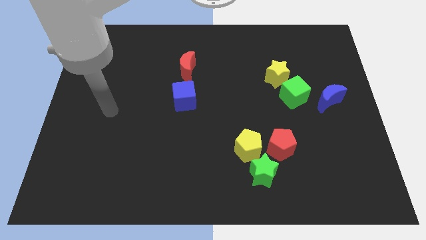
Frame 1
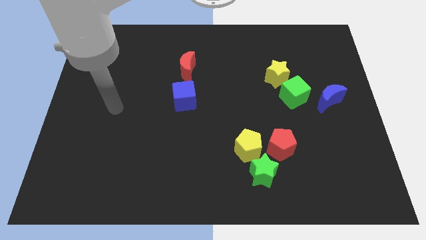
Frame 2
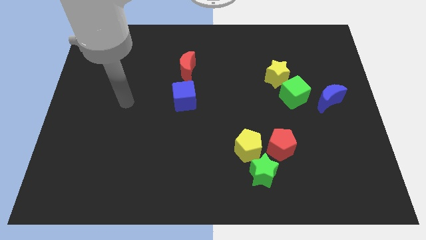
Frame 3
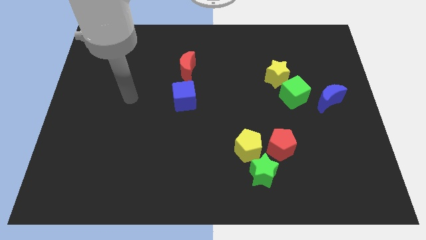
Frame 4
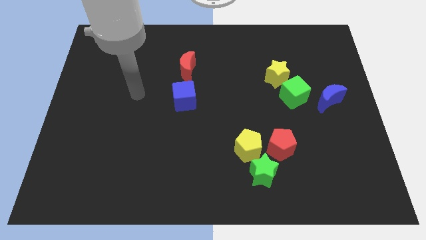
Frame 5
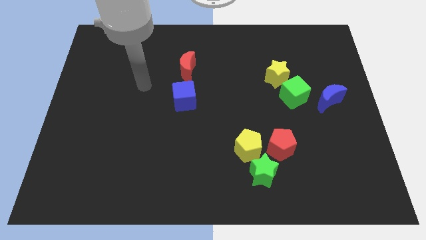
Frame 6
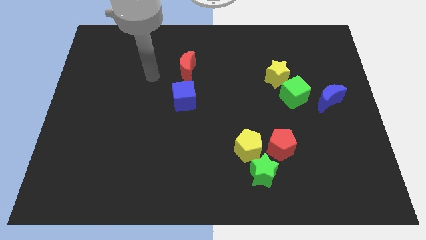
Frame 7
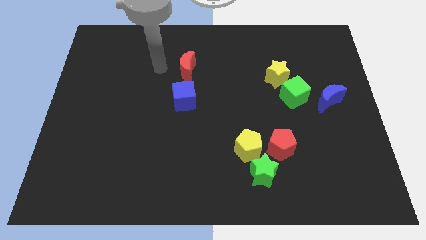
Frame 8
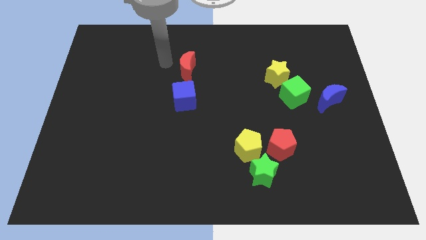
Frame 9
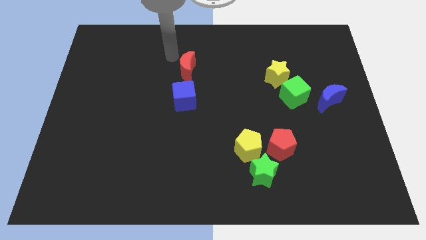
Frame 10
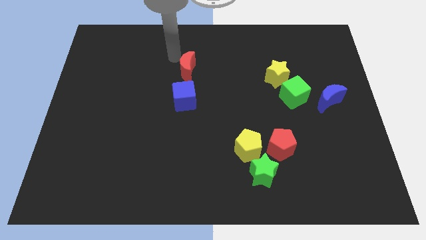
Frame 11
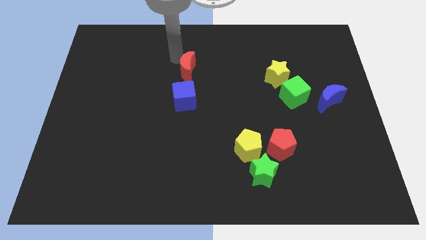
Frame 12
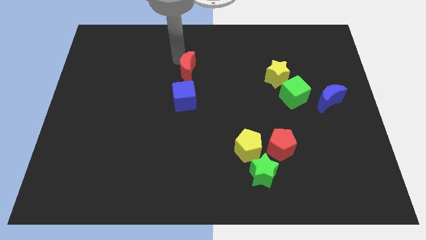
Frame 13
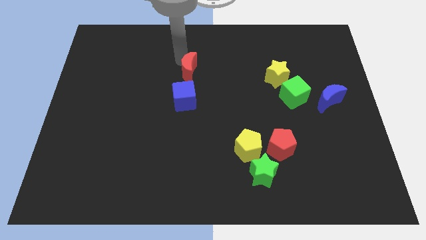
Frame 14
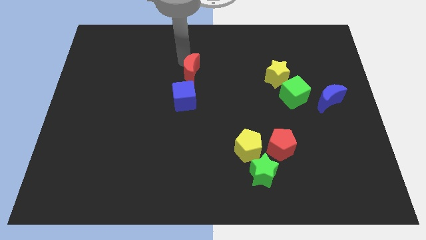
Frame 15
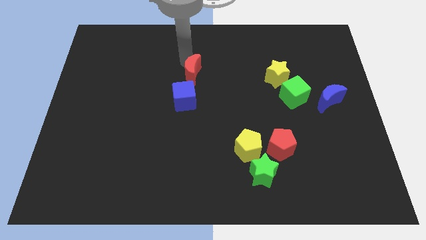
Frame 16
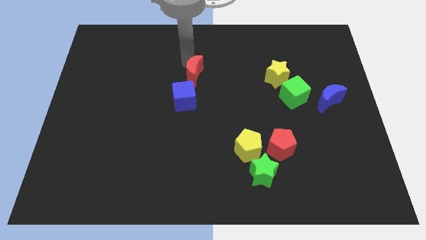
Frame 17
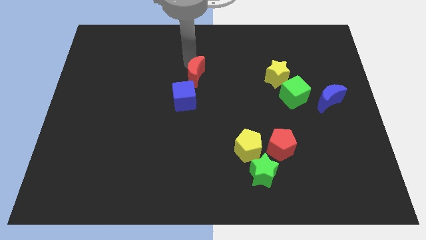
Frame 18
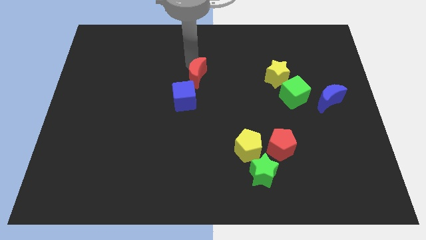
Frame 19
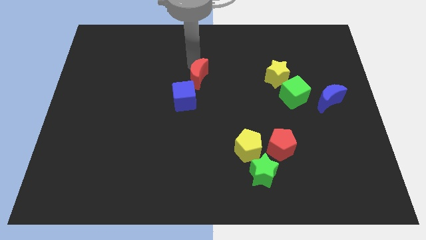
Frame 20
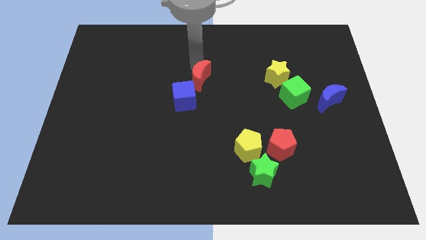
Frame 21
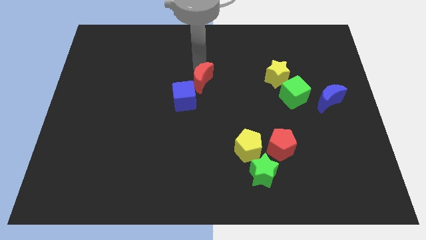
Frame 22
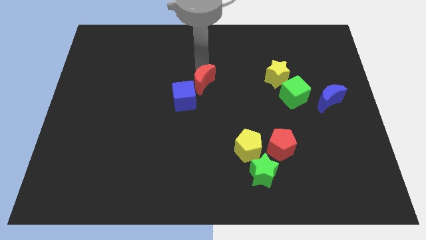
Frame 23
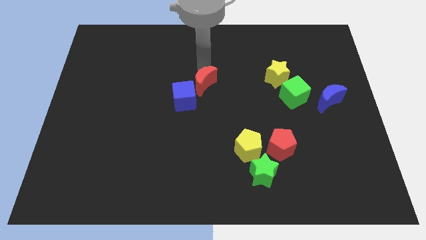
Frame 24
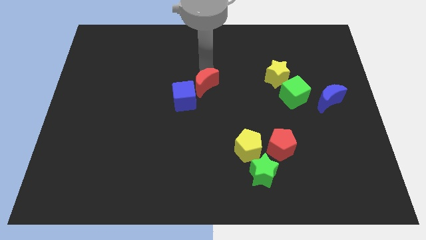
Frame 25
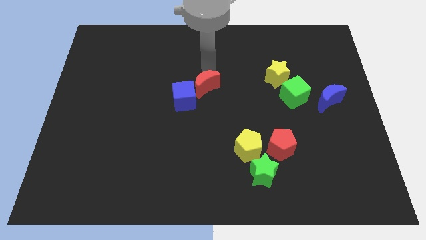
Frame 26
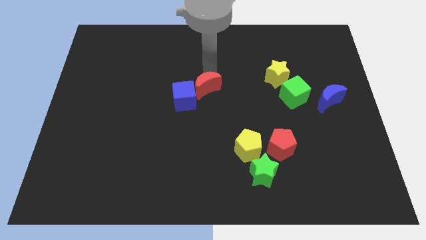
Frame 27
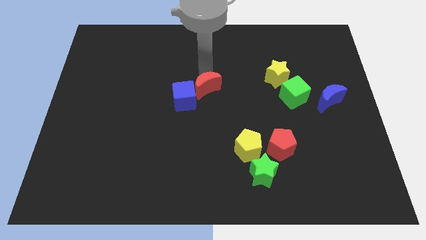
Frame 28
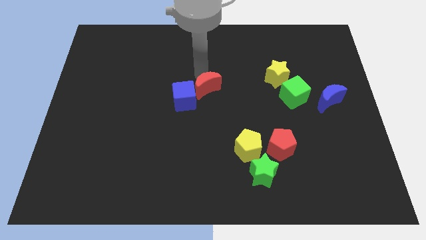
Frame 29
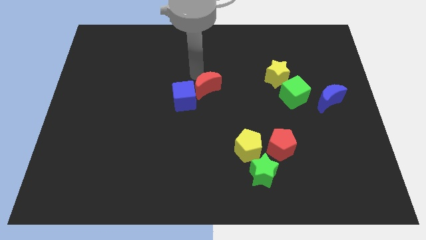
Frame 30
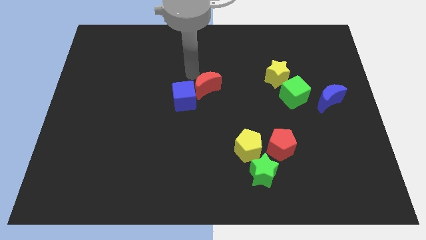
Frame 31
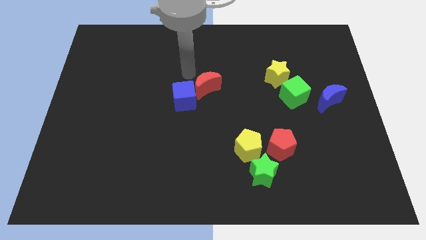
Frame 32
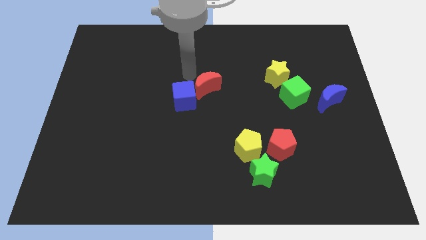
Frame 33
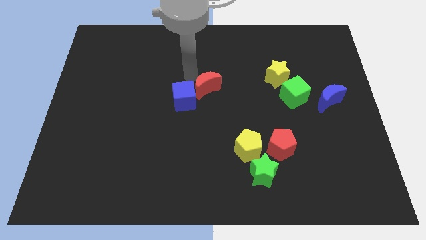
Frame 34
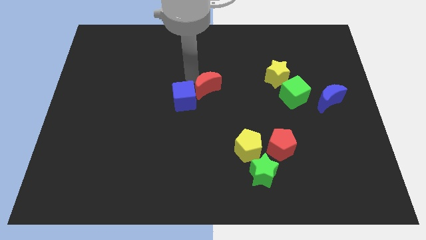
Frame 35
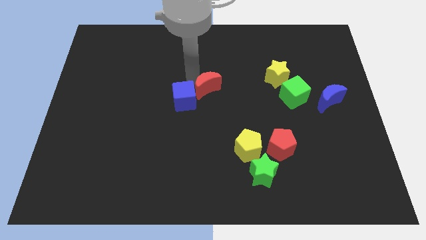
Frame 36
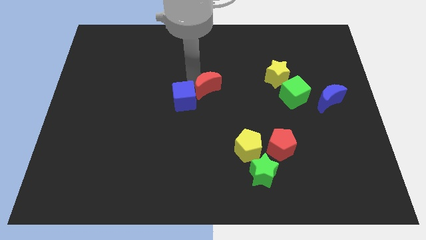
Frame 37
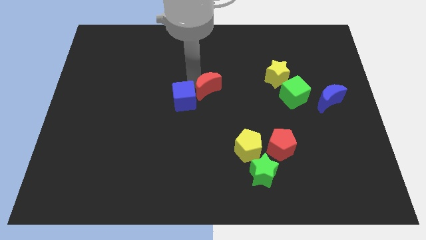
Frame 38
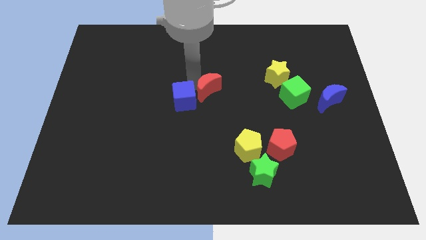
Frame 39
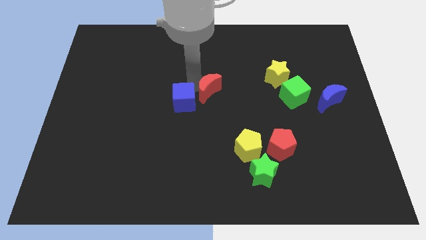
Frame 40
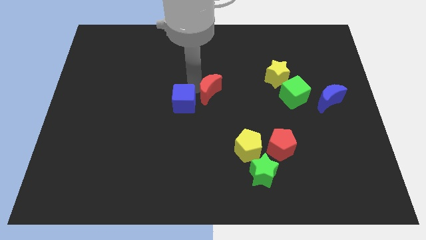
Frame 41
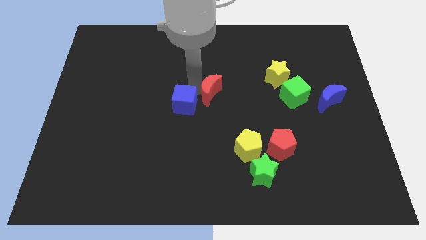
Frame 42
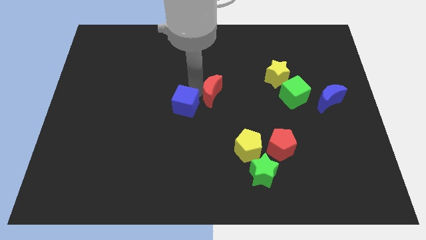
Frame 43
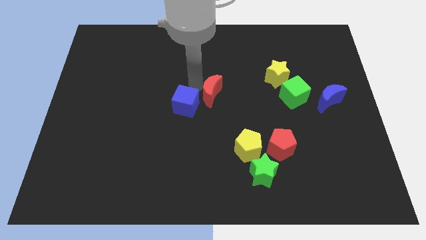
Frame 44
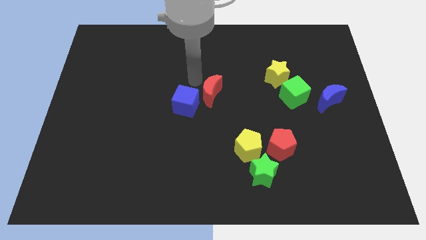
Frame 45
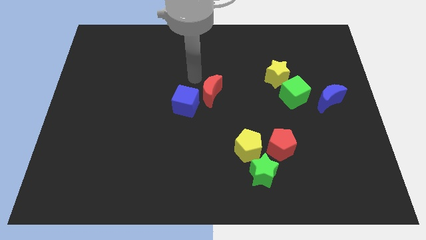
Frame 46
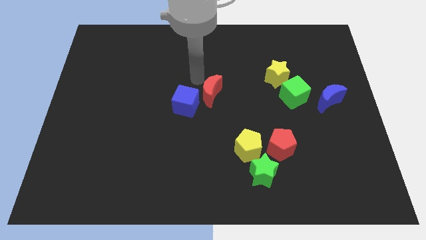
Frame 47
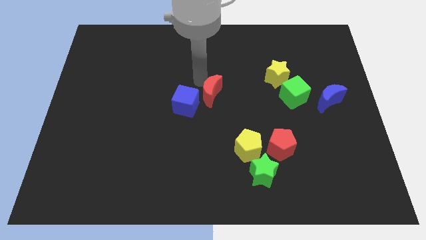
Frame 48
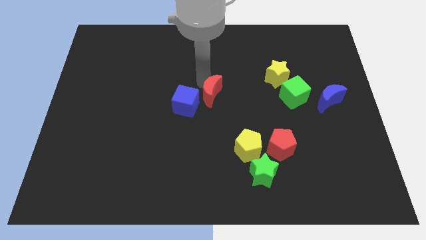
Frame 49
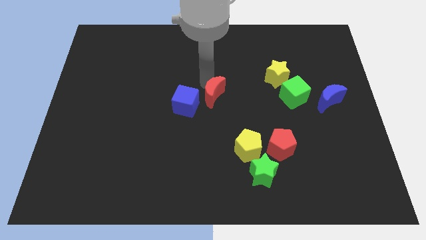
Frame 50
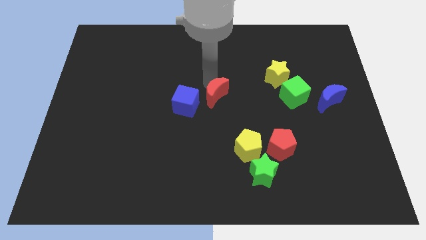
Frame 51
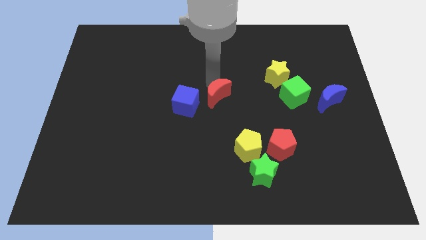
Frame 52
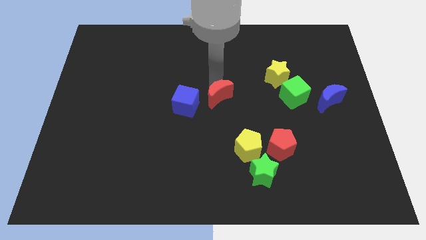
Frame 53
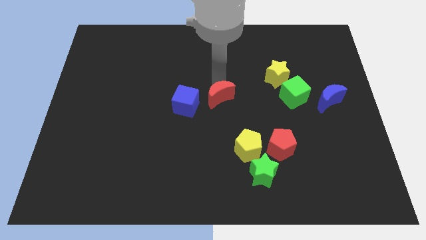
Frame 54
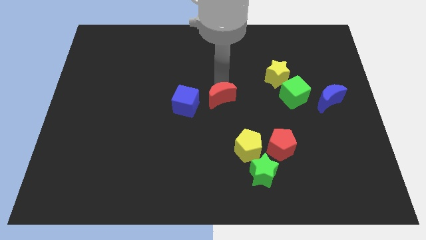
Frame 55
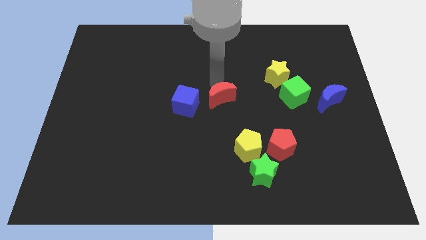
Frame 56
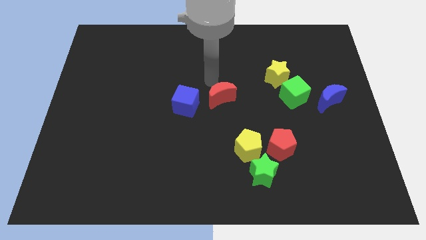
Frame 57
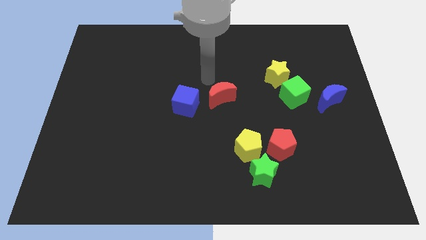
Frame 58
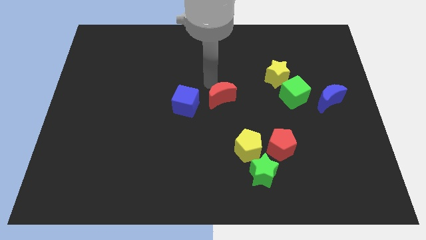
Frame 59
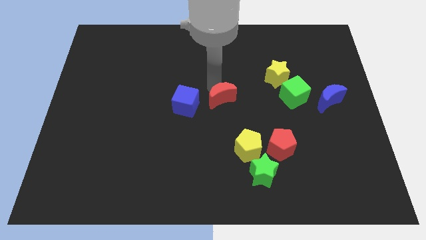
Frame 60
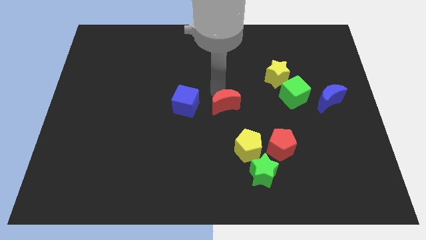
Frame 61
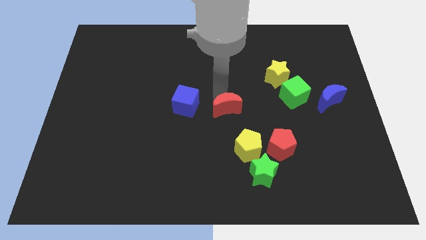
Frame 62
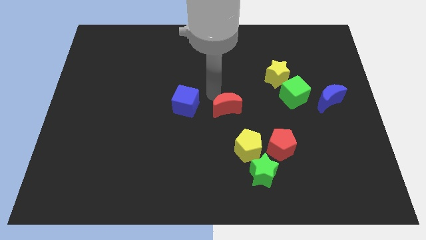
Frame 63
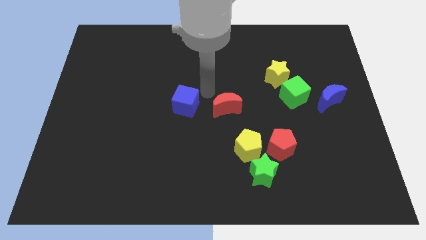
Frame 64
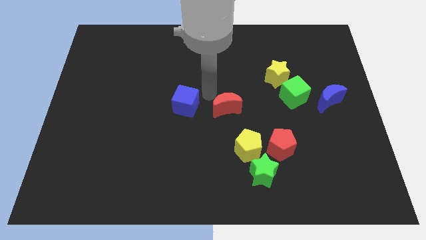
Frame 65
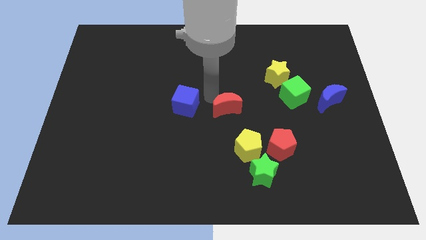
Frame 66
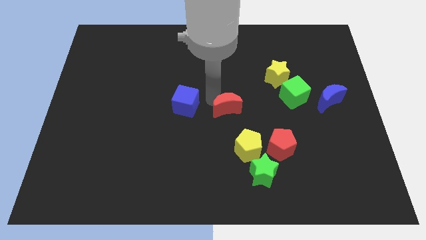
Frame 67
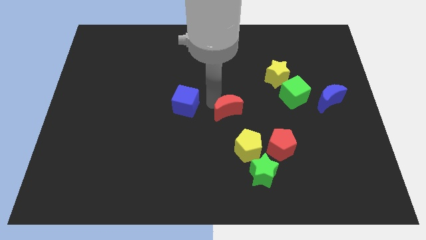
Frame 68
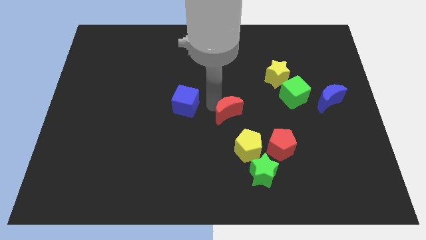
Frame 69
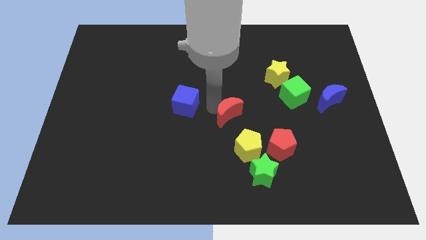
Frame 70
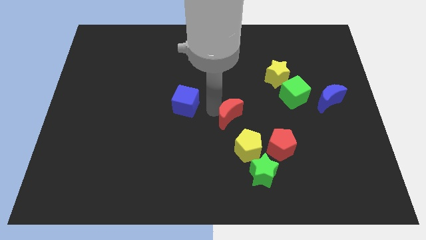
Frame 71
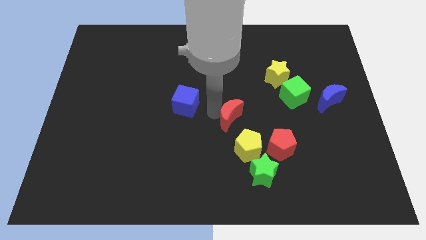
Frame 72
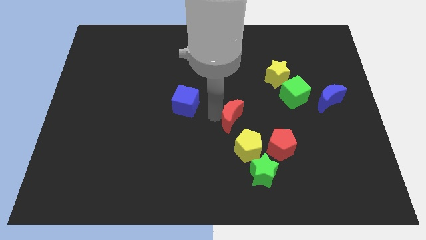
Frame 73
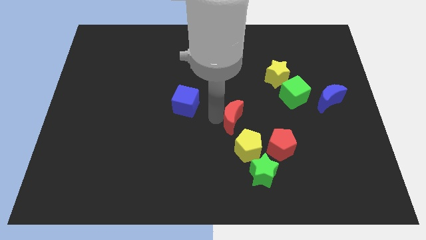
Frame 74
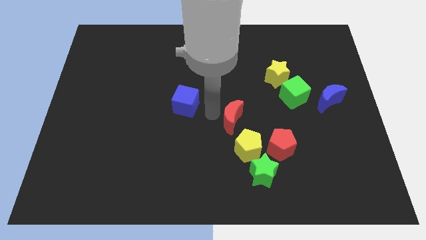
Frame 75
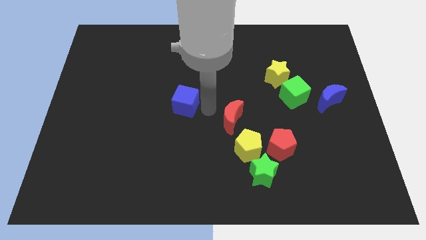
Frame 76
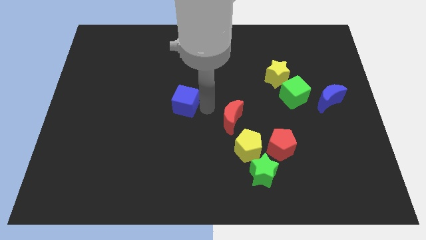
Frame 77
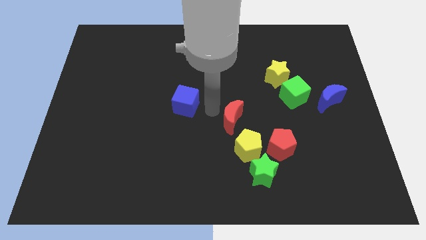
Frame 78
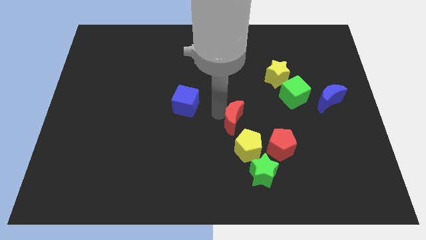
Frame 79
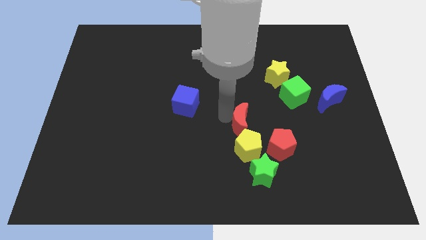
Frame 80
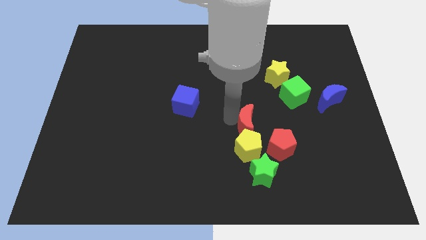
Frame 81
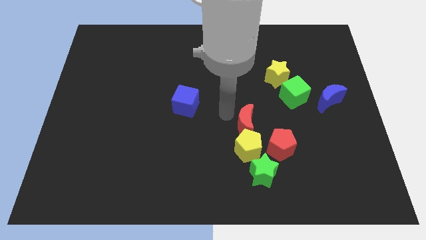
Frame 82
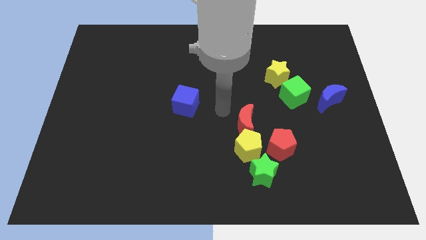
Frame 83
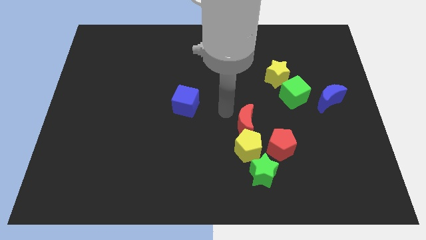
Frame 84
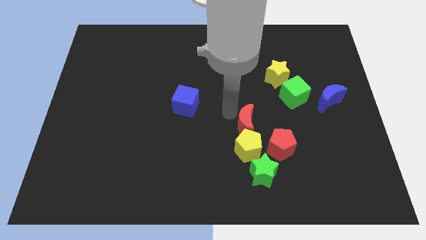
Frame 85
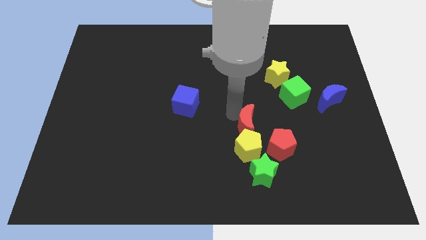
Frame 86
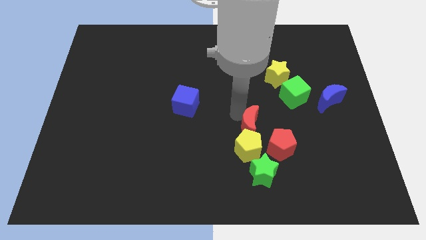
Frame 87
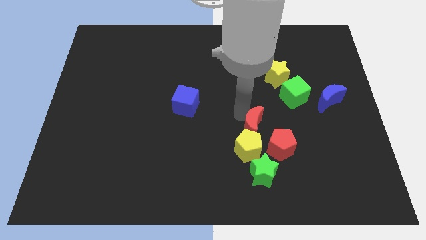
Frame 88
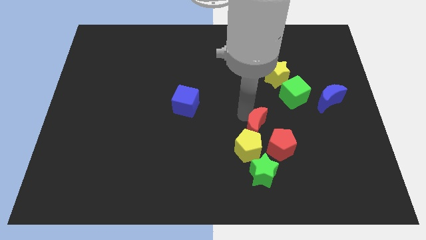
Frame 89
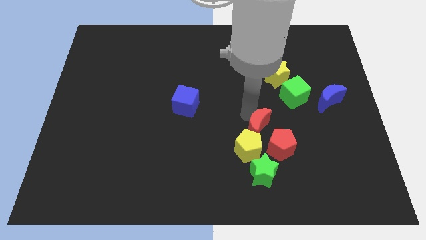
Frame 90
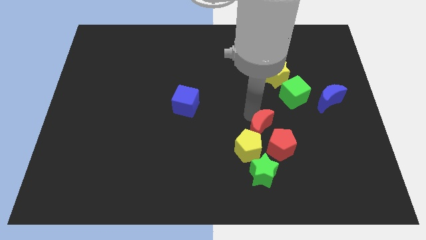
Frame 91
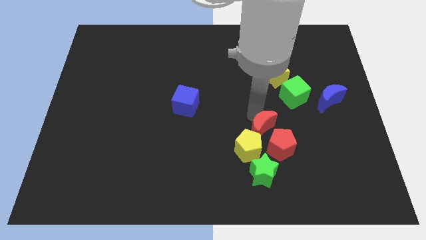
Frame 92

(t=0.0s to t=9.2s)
slide the red moon towards the red pentagon
